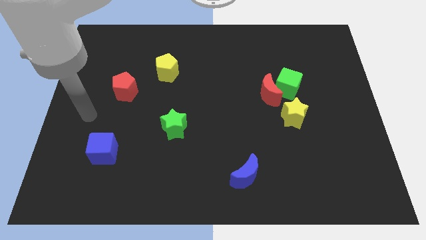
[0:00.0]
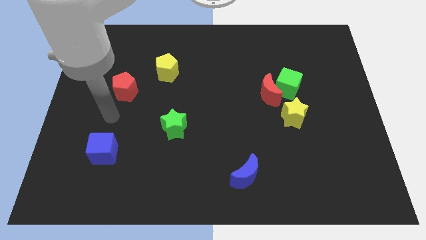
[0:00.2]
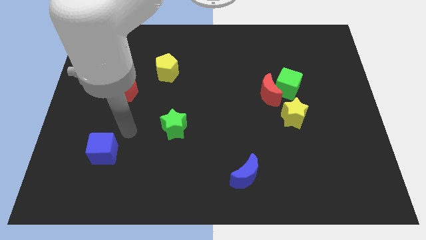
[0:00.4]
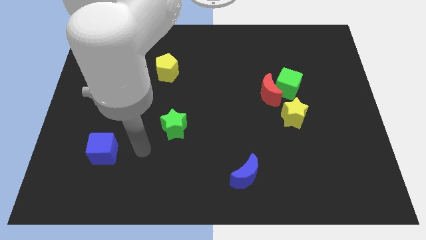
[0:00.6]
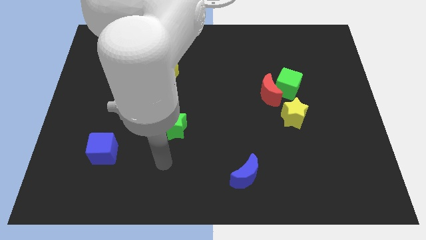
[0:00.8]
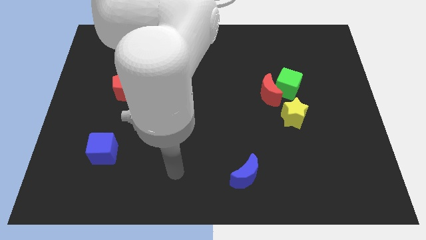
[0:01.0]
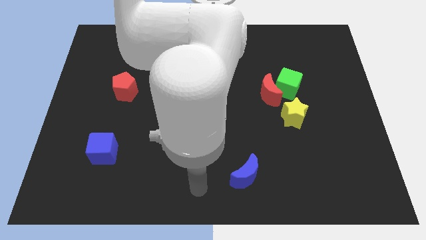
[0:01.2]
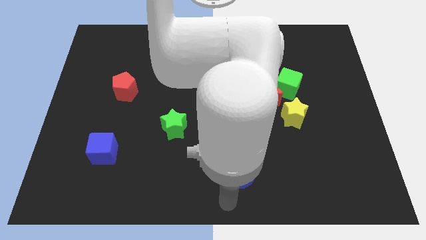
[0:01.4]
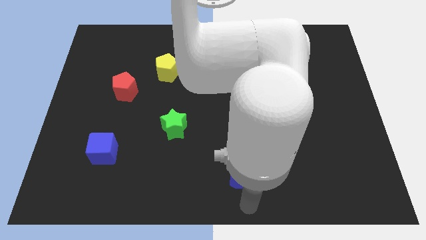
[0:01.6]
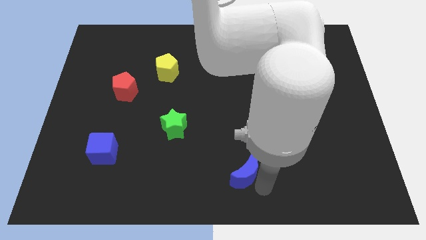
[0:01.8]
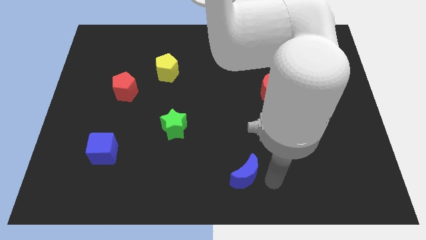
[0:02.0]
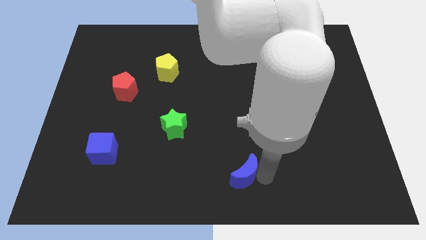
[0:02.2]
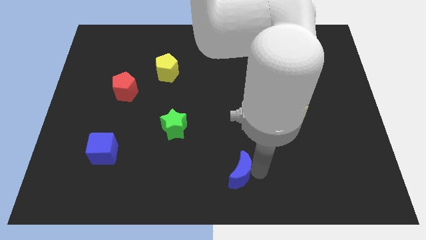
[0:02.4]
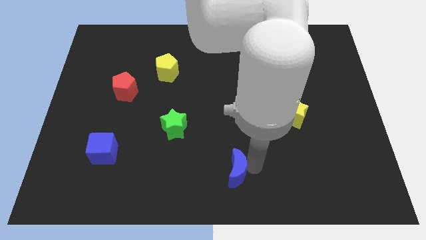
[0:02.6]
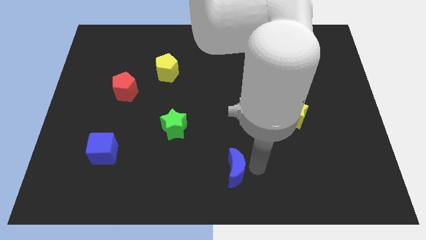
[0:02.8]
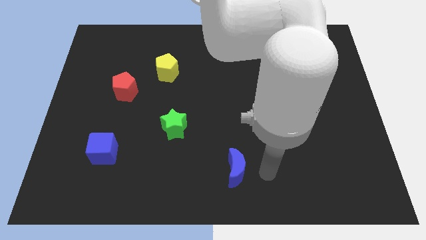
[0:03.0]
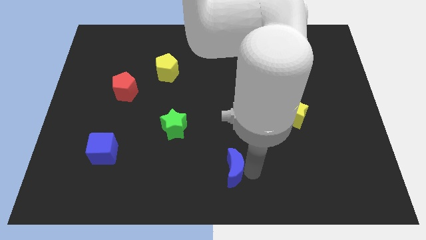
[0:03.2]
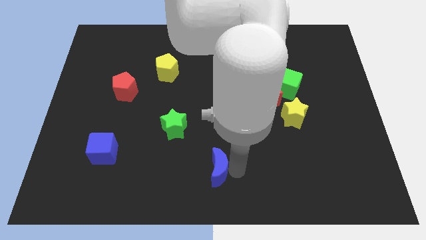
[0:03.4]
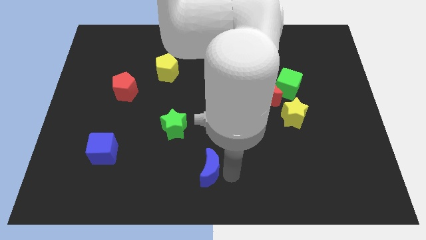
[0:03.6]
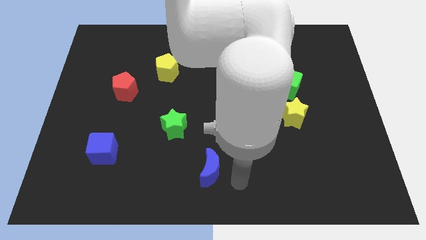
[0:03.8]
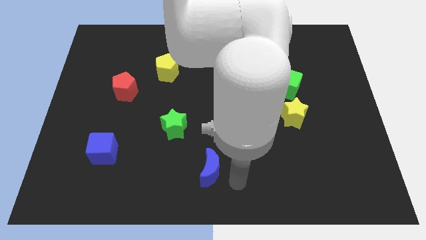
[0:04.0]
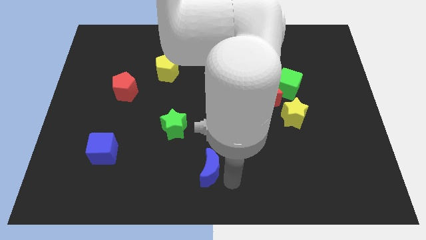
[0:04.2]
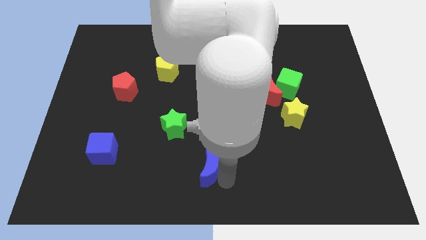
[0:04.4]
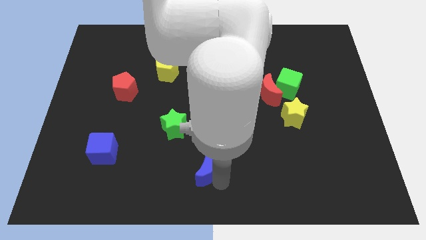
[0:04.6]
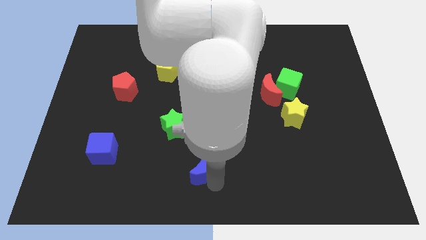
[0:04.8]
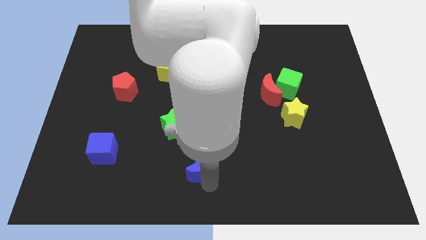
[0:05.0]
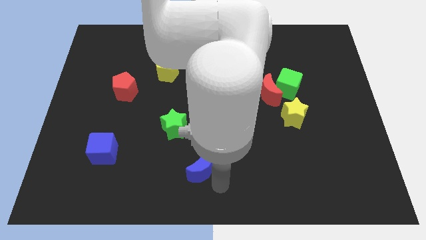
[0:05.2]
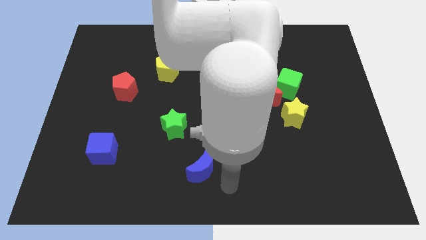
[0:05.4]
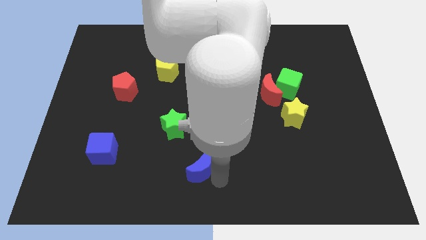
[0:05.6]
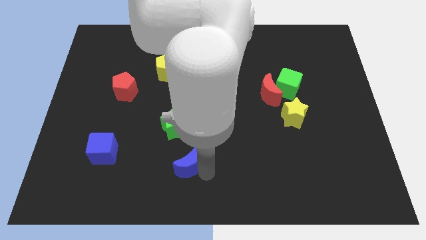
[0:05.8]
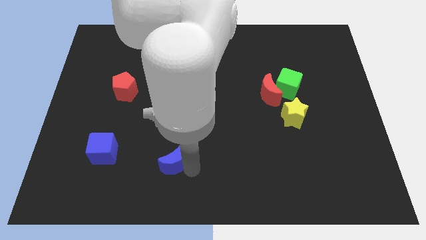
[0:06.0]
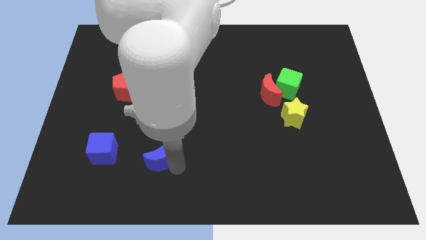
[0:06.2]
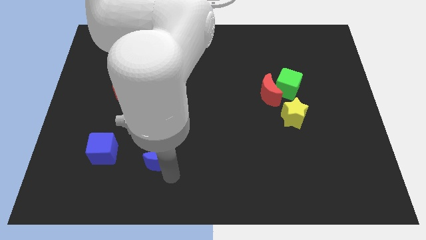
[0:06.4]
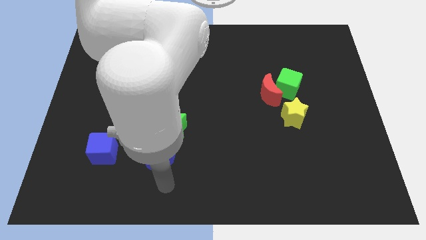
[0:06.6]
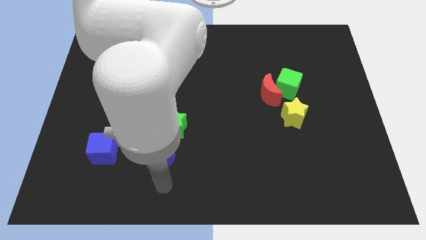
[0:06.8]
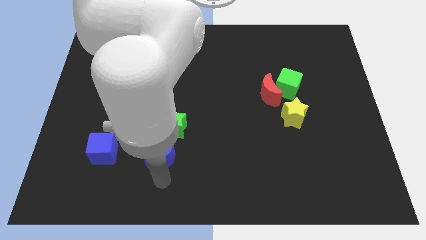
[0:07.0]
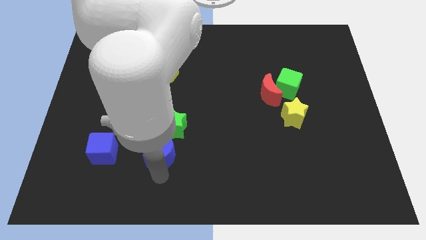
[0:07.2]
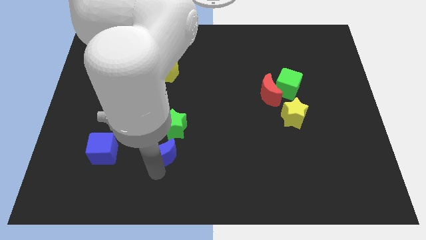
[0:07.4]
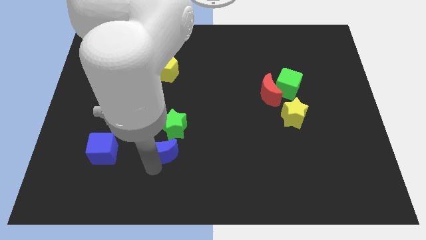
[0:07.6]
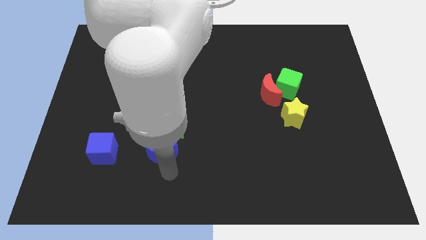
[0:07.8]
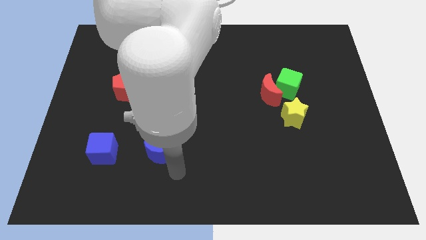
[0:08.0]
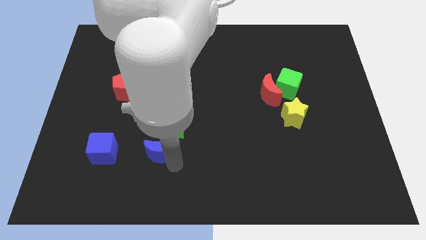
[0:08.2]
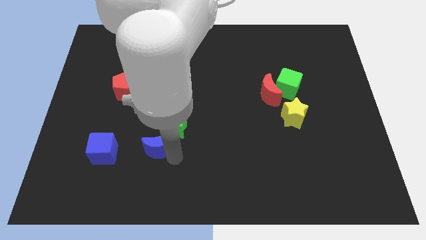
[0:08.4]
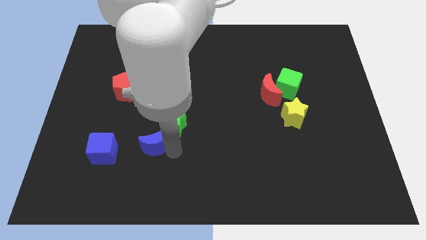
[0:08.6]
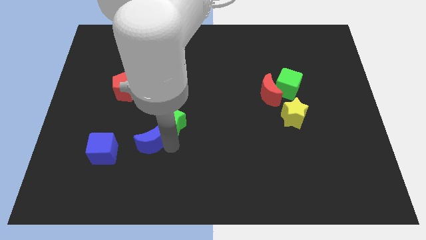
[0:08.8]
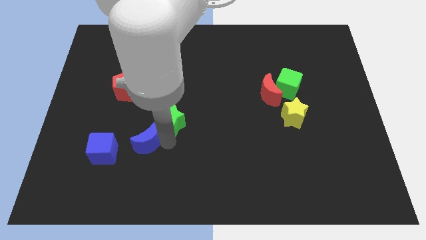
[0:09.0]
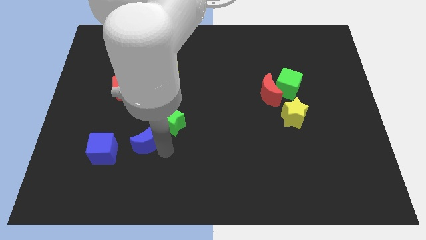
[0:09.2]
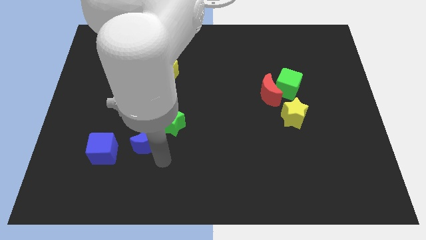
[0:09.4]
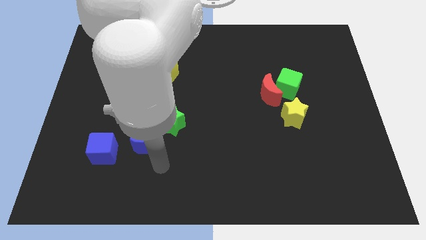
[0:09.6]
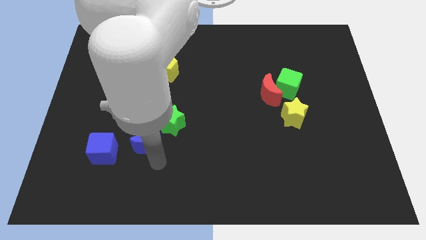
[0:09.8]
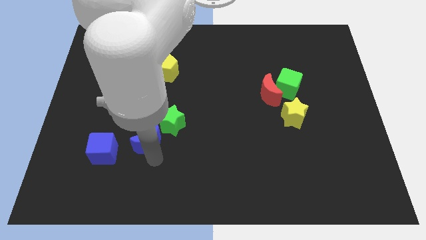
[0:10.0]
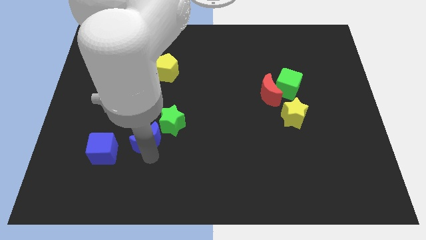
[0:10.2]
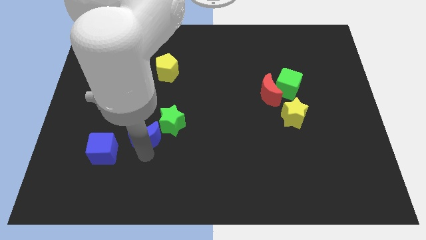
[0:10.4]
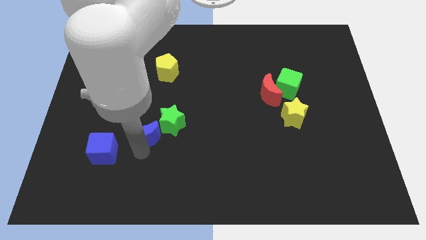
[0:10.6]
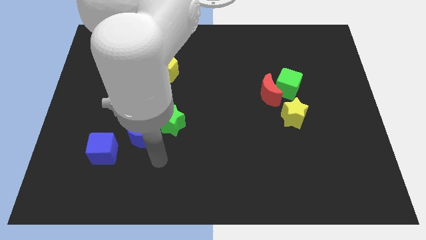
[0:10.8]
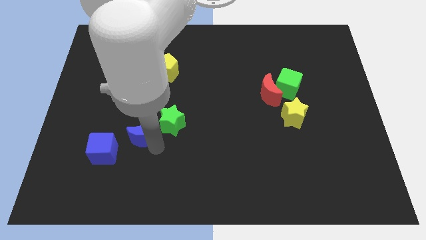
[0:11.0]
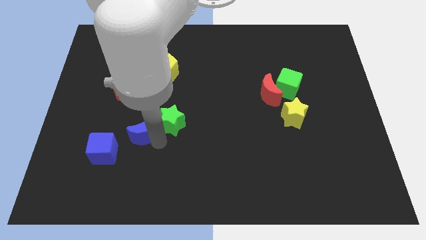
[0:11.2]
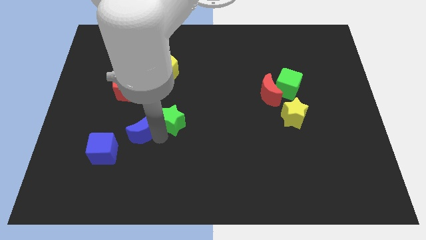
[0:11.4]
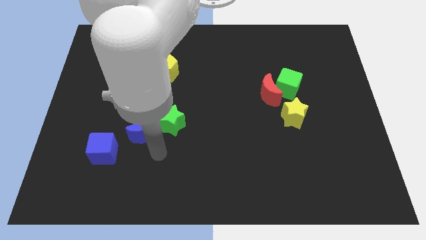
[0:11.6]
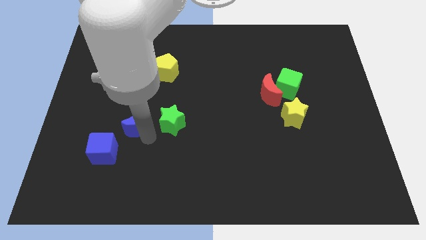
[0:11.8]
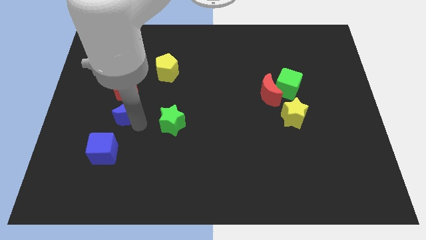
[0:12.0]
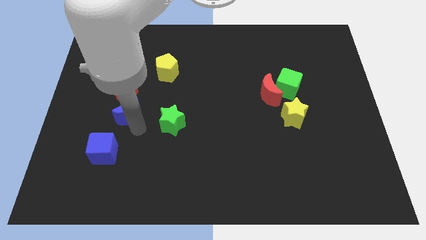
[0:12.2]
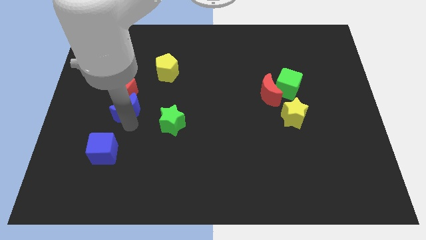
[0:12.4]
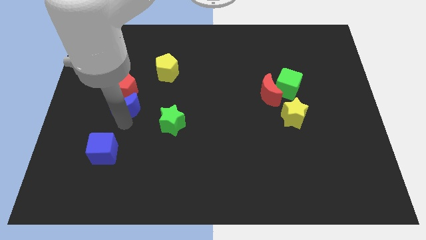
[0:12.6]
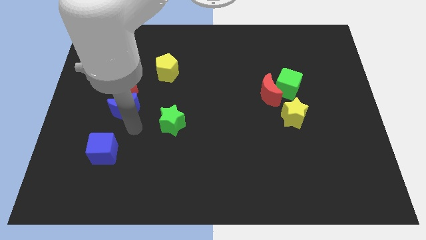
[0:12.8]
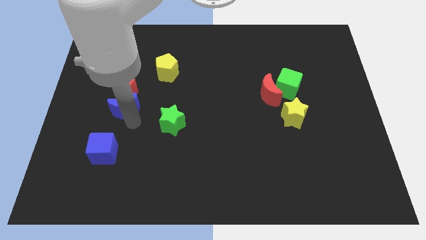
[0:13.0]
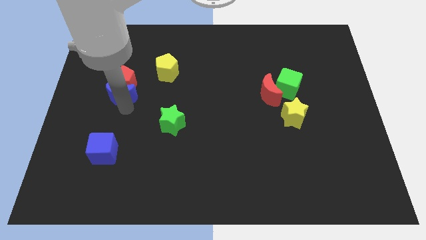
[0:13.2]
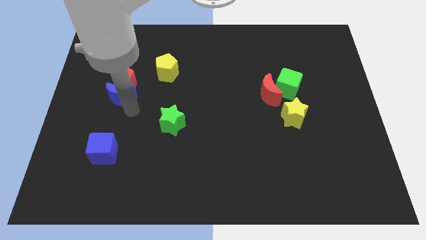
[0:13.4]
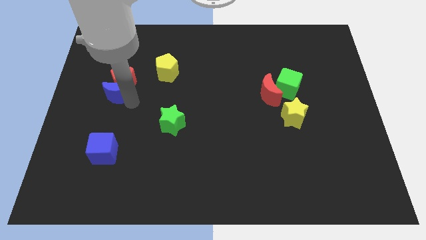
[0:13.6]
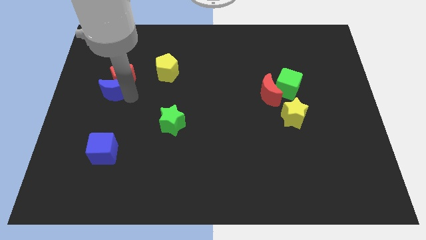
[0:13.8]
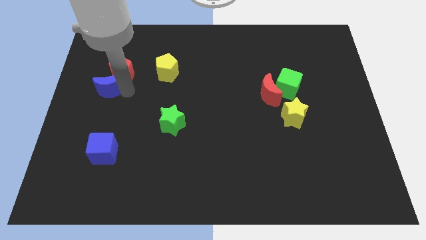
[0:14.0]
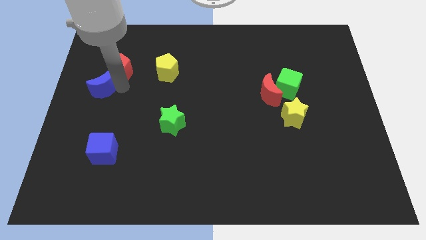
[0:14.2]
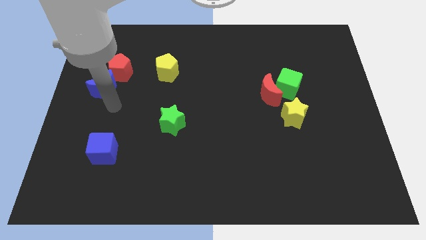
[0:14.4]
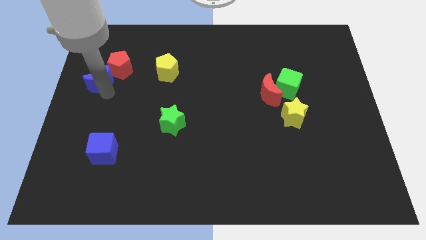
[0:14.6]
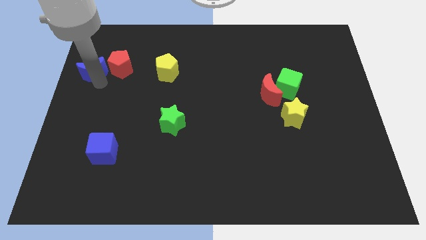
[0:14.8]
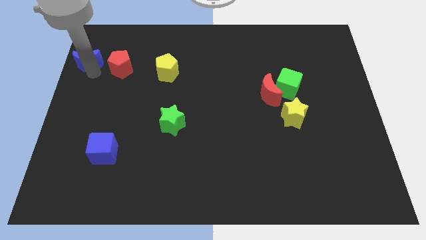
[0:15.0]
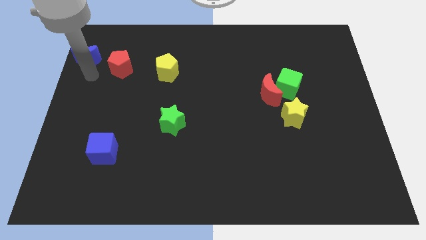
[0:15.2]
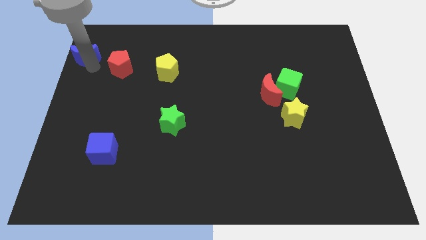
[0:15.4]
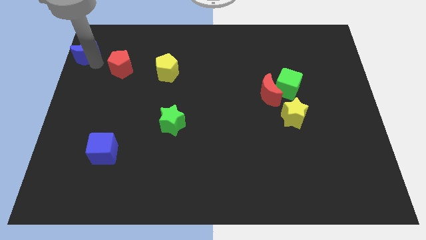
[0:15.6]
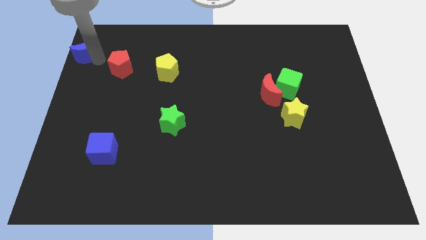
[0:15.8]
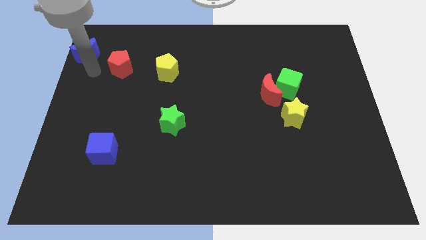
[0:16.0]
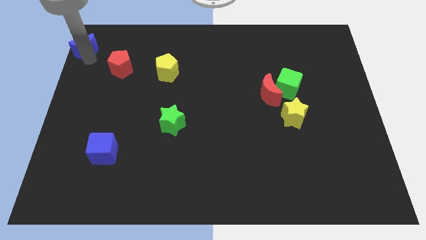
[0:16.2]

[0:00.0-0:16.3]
put the blue moon to the top left of the board
